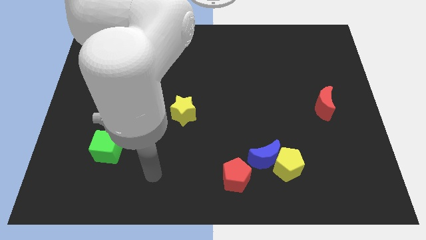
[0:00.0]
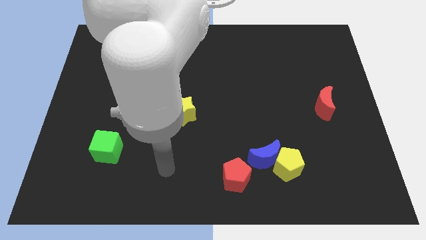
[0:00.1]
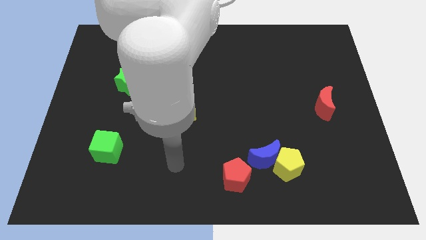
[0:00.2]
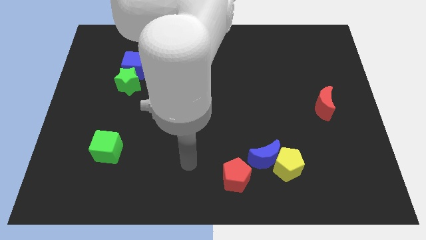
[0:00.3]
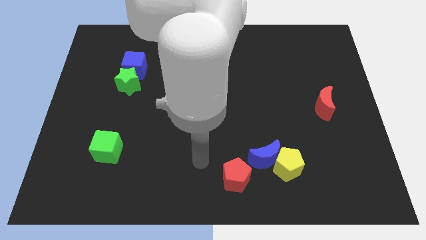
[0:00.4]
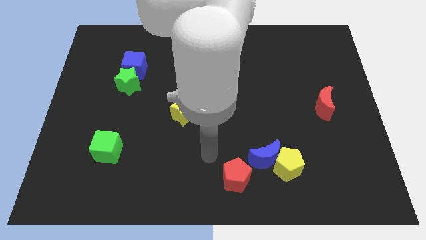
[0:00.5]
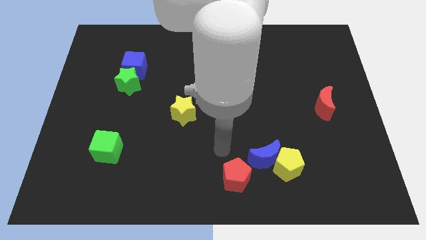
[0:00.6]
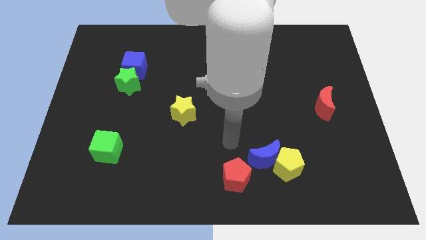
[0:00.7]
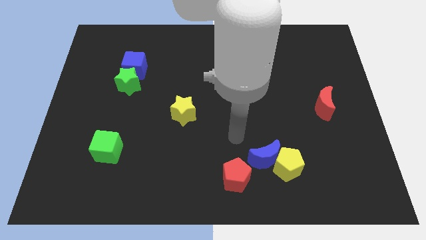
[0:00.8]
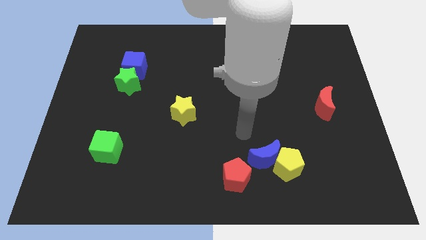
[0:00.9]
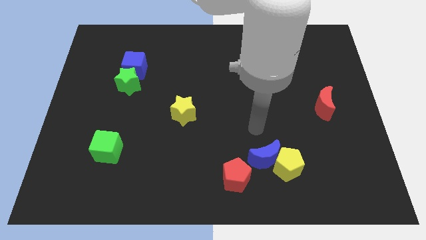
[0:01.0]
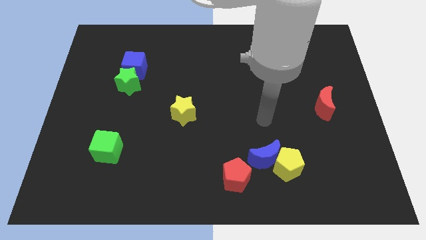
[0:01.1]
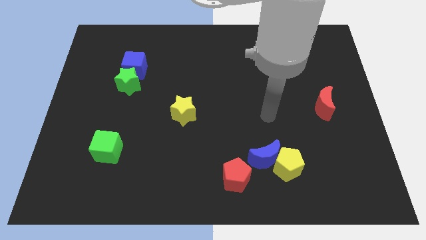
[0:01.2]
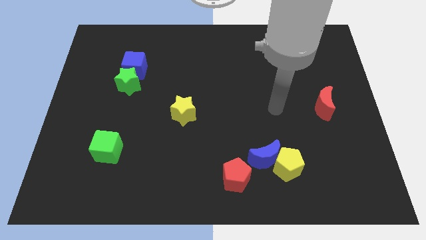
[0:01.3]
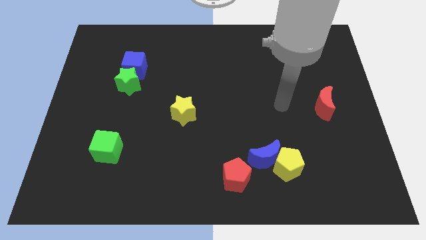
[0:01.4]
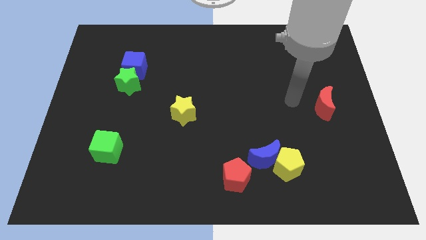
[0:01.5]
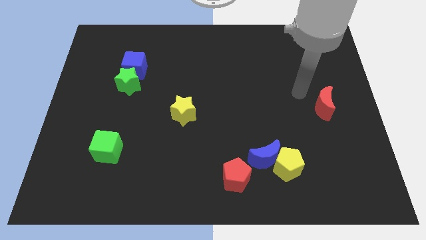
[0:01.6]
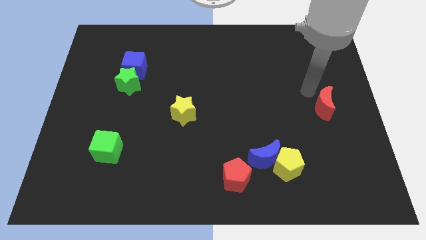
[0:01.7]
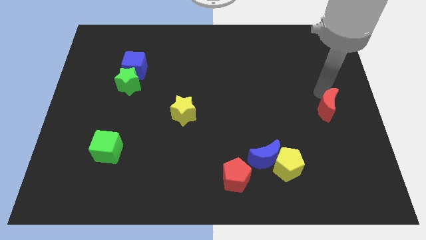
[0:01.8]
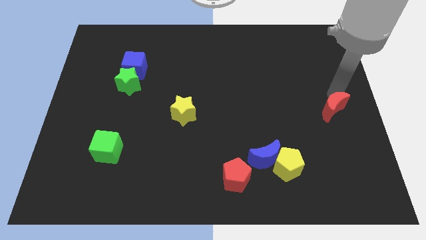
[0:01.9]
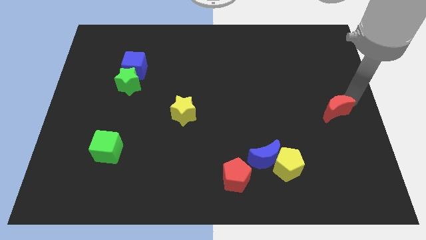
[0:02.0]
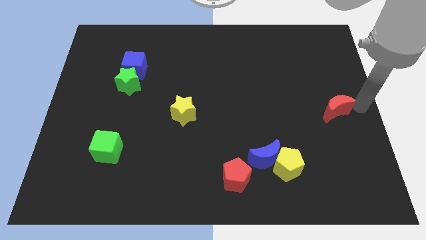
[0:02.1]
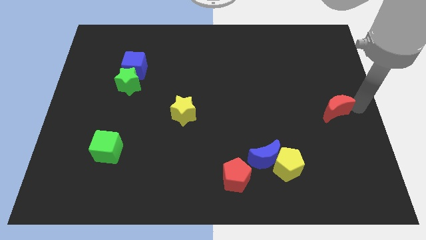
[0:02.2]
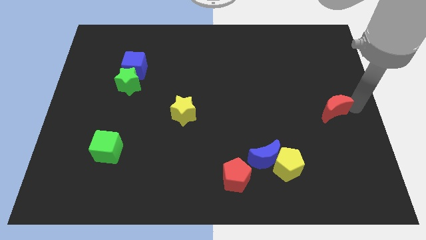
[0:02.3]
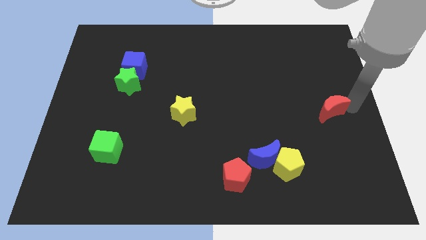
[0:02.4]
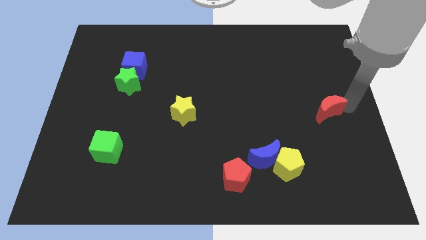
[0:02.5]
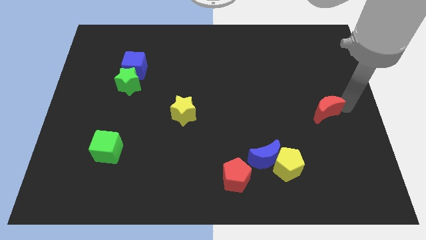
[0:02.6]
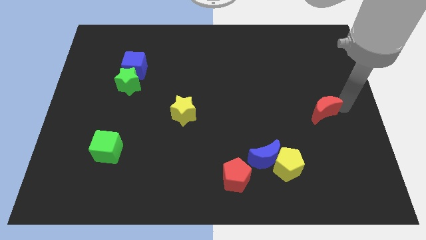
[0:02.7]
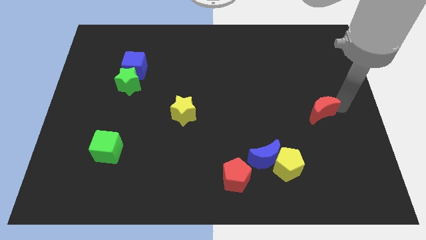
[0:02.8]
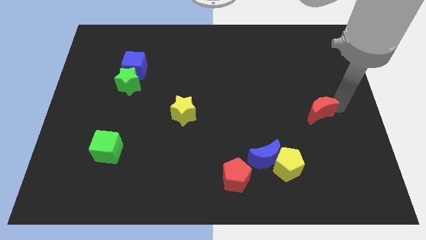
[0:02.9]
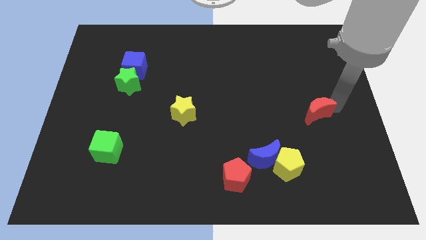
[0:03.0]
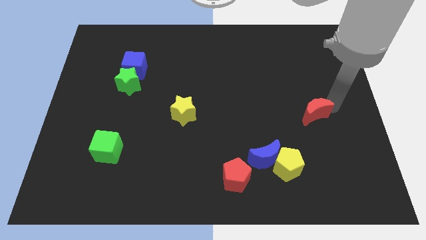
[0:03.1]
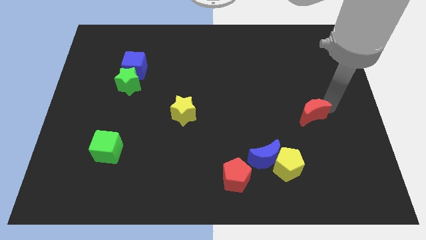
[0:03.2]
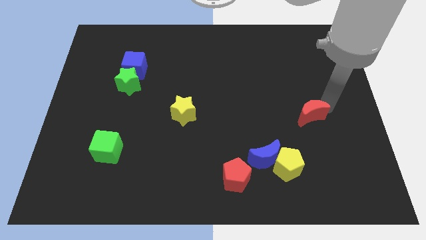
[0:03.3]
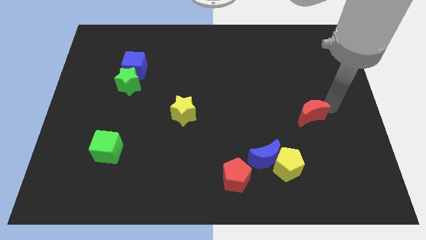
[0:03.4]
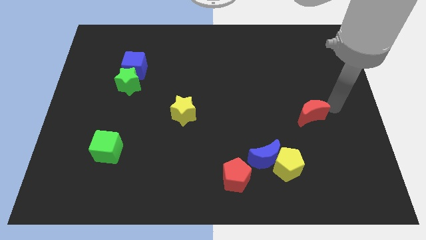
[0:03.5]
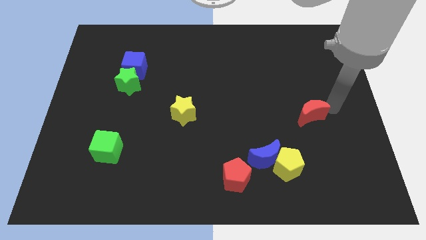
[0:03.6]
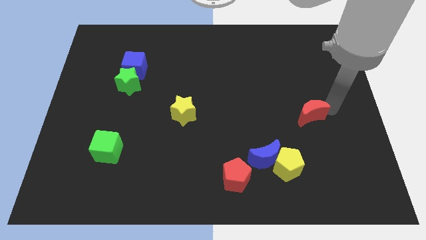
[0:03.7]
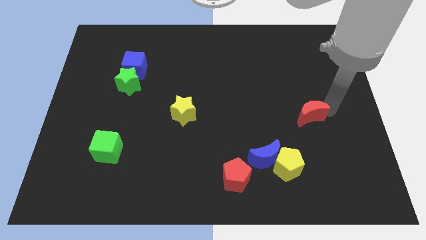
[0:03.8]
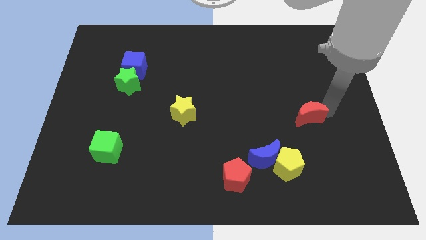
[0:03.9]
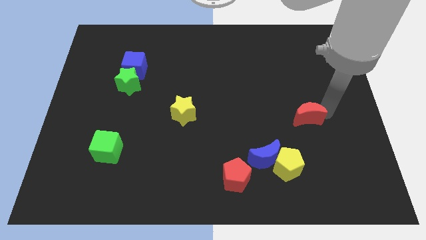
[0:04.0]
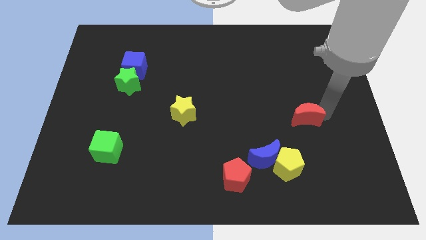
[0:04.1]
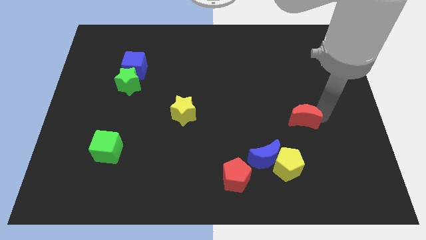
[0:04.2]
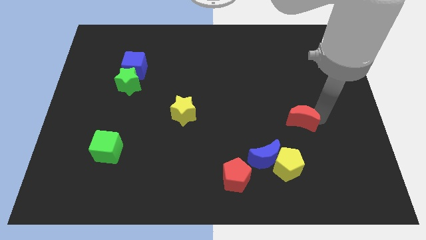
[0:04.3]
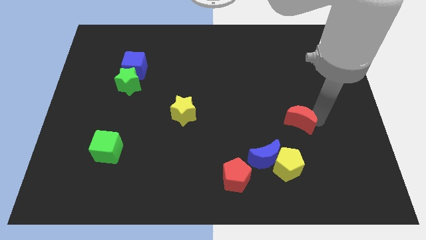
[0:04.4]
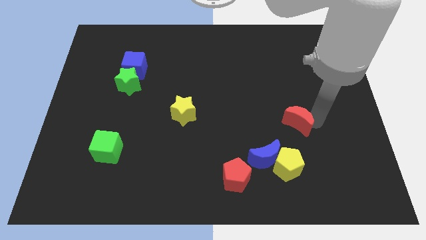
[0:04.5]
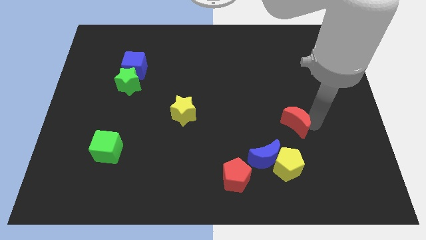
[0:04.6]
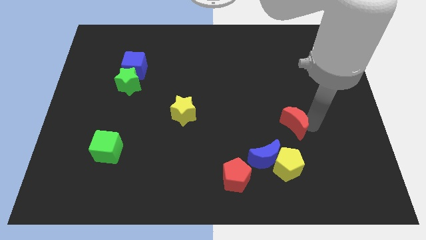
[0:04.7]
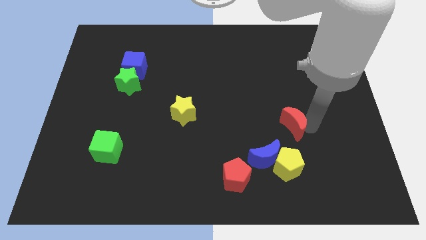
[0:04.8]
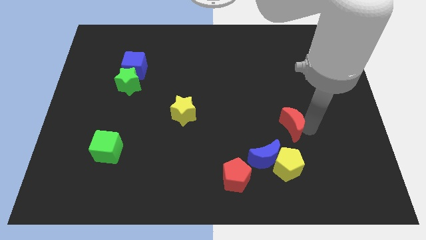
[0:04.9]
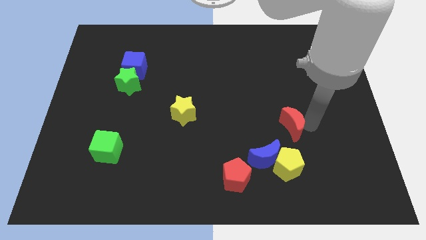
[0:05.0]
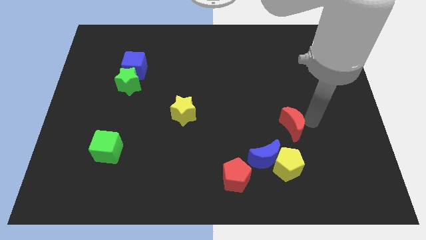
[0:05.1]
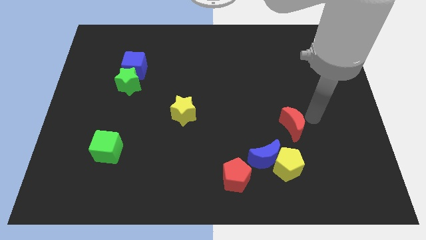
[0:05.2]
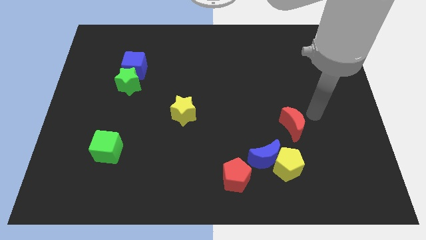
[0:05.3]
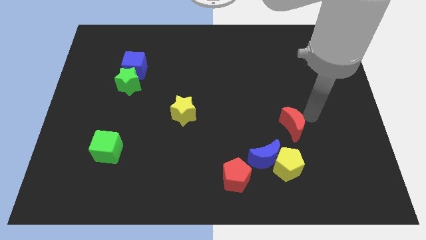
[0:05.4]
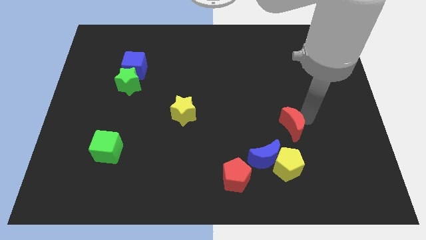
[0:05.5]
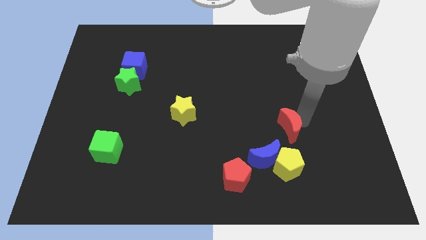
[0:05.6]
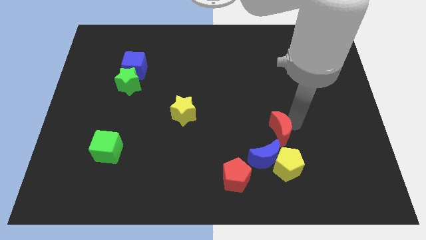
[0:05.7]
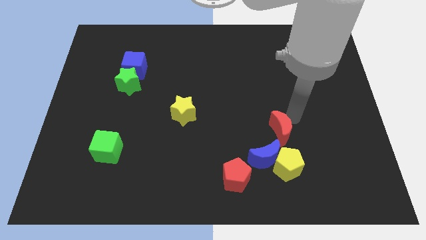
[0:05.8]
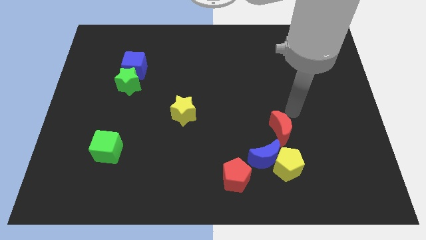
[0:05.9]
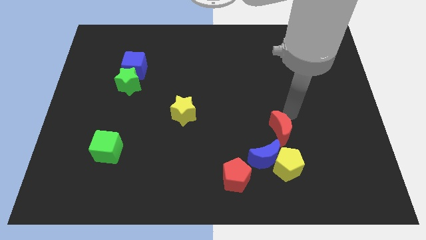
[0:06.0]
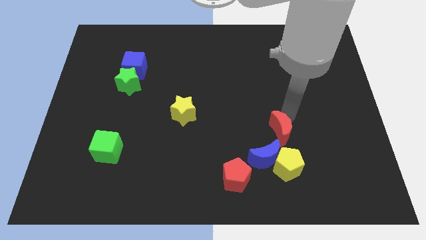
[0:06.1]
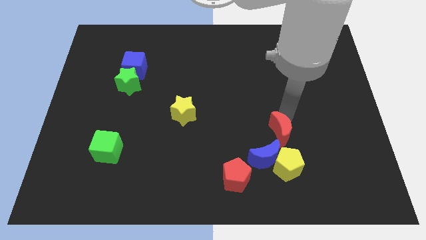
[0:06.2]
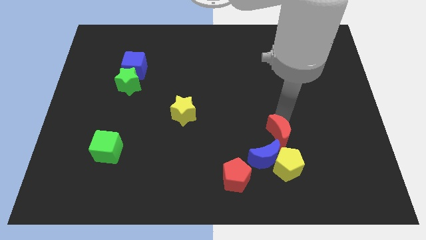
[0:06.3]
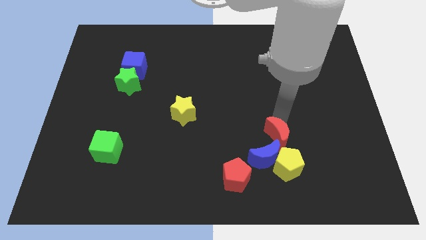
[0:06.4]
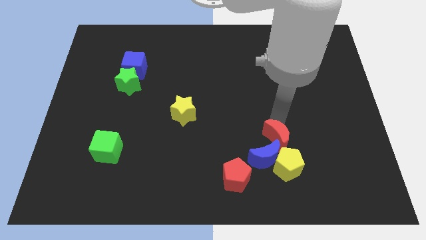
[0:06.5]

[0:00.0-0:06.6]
slide the red moon to the blue moon

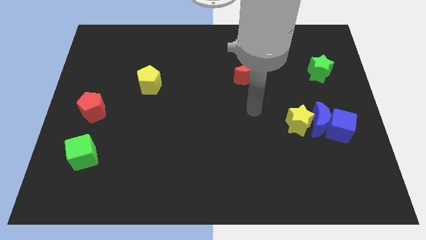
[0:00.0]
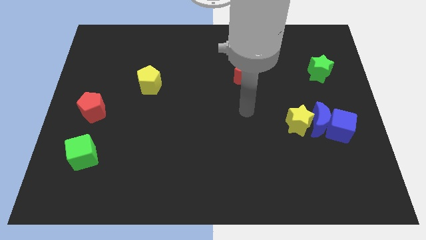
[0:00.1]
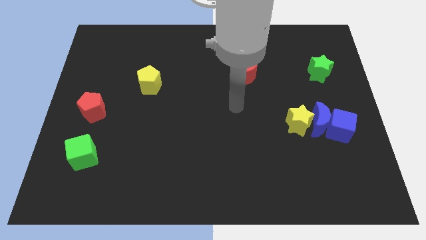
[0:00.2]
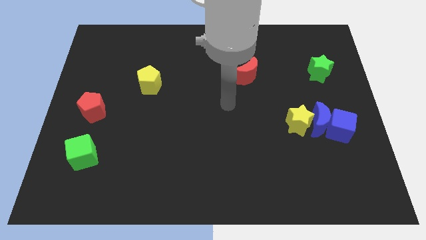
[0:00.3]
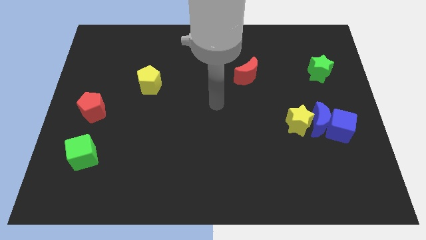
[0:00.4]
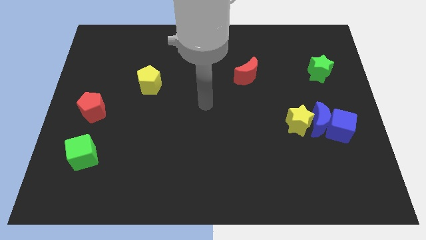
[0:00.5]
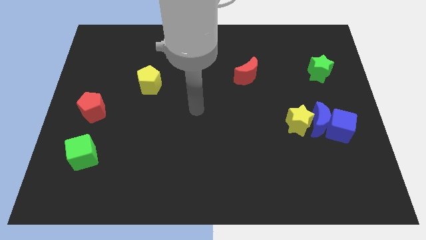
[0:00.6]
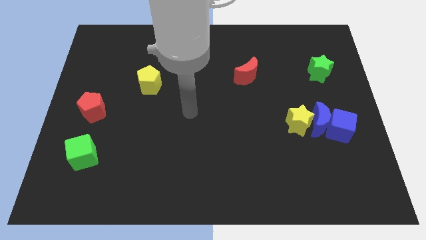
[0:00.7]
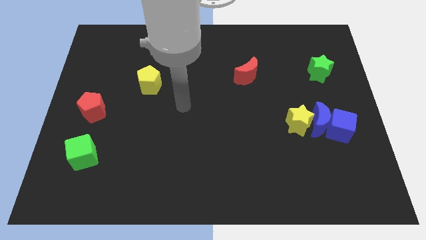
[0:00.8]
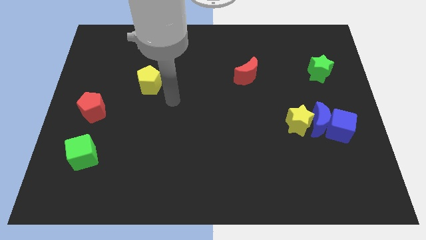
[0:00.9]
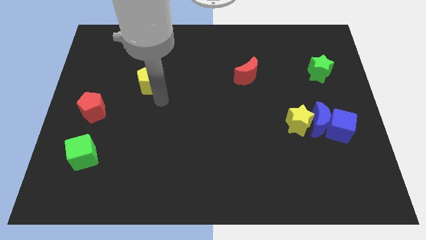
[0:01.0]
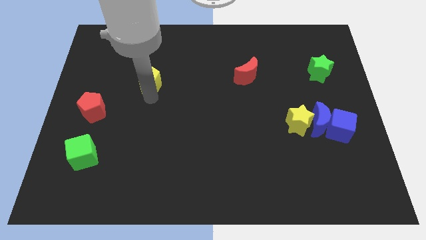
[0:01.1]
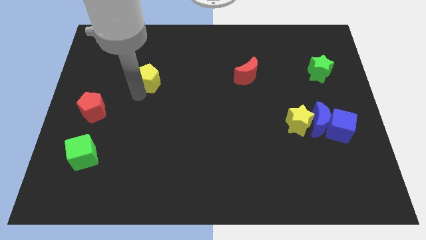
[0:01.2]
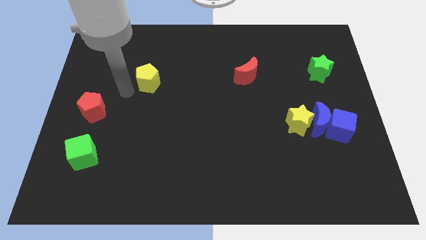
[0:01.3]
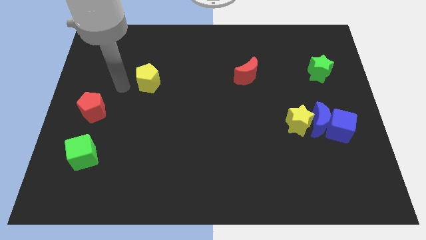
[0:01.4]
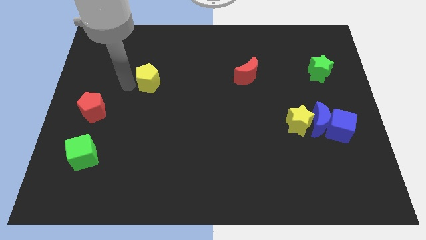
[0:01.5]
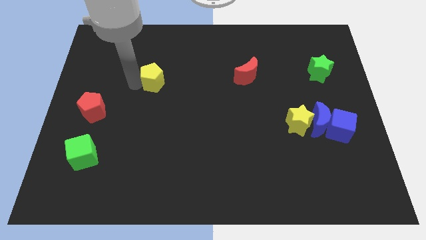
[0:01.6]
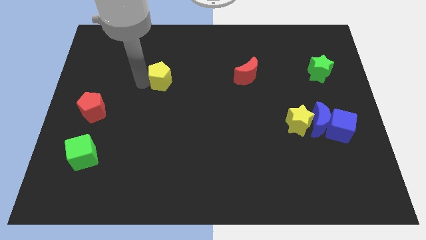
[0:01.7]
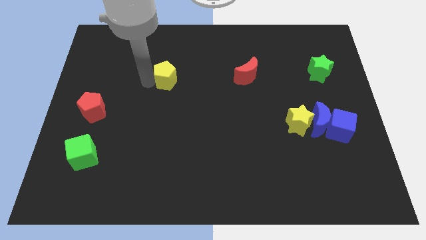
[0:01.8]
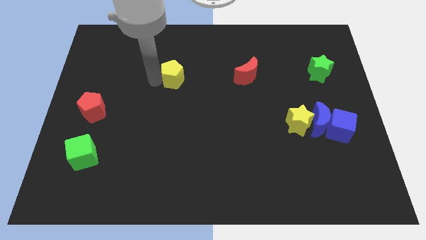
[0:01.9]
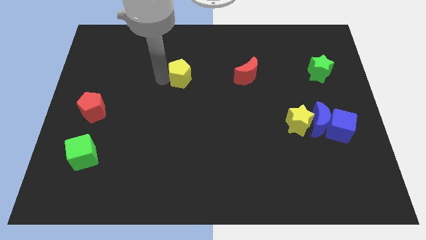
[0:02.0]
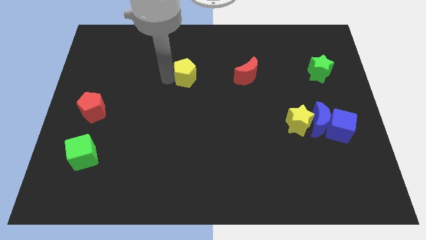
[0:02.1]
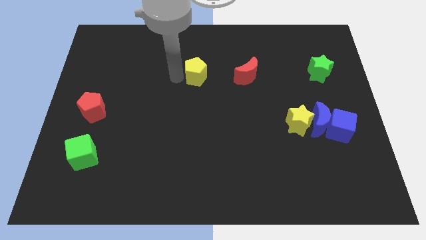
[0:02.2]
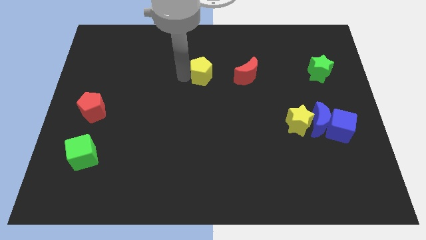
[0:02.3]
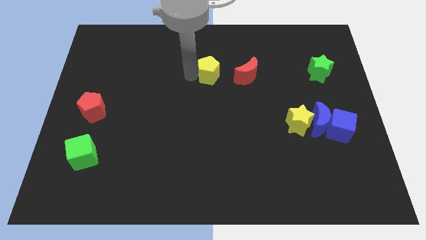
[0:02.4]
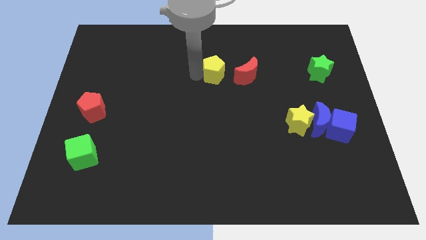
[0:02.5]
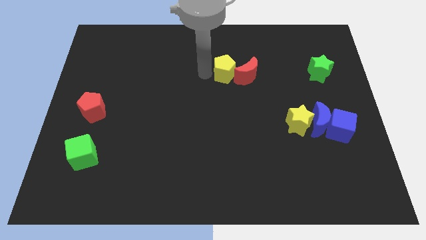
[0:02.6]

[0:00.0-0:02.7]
slide the yellow pentagon close to the red moon
